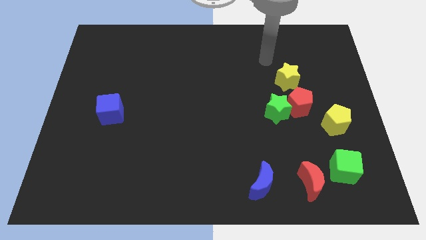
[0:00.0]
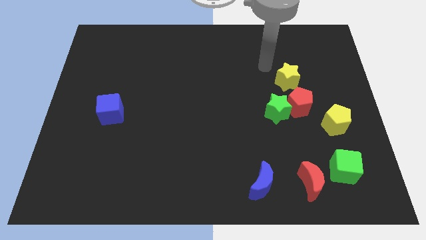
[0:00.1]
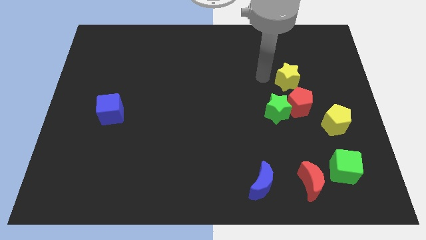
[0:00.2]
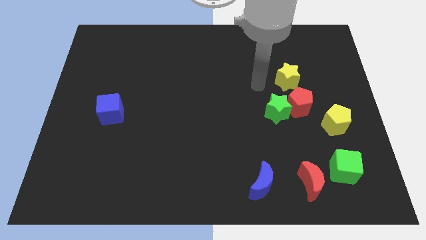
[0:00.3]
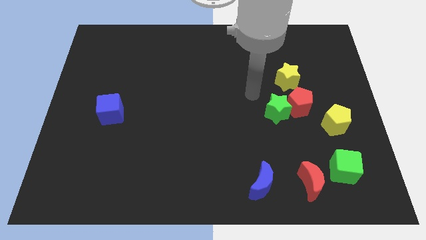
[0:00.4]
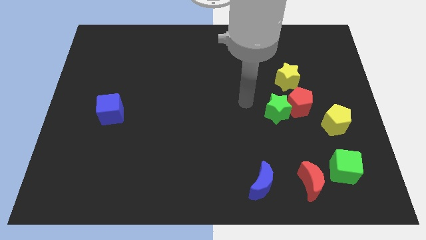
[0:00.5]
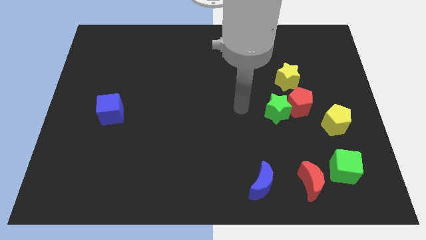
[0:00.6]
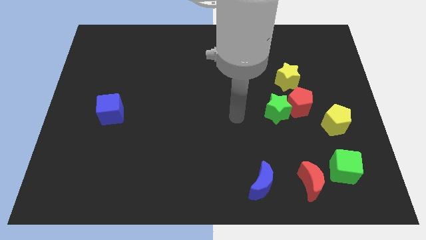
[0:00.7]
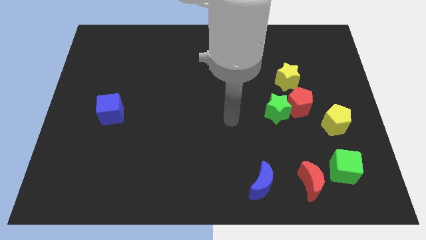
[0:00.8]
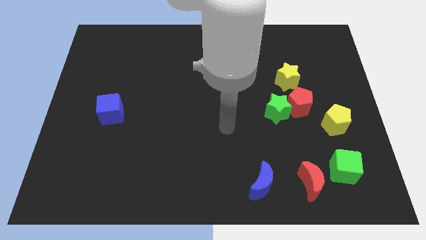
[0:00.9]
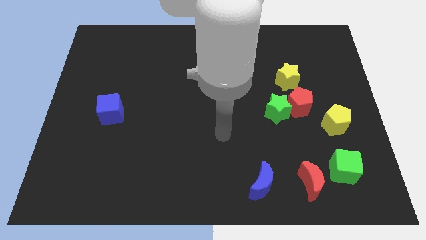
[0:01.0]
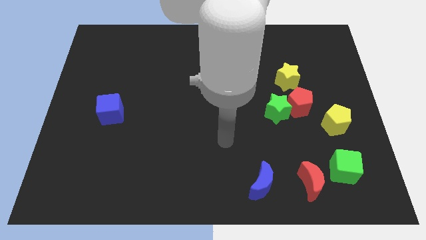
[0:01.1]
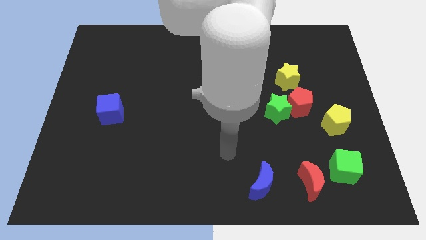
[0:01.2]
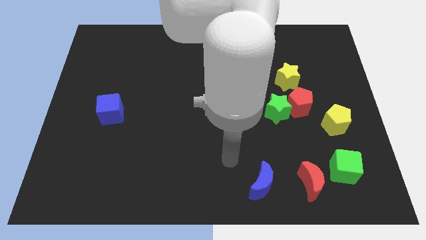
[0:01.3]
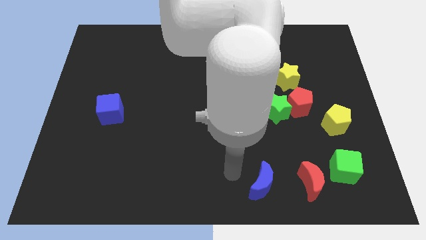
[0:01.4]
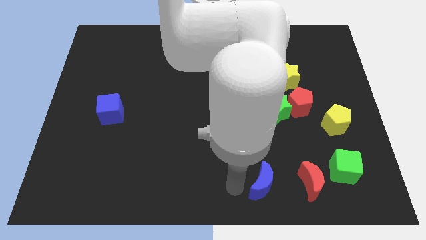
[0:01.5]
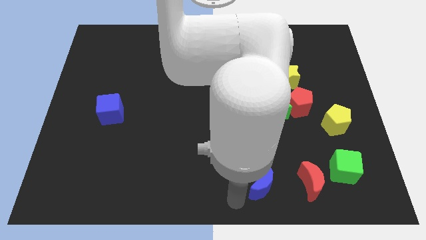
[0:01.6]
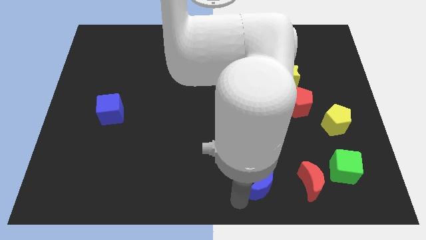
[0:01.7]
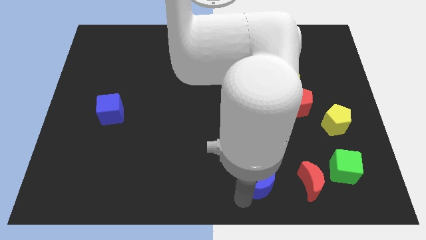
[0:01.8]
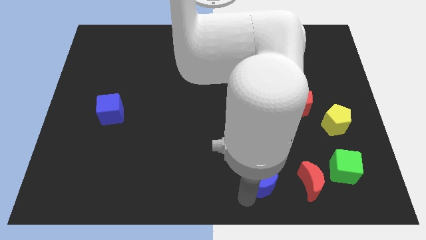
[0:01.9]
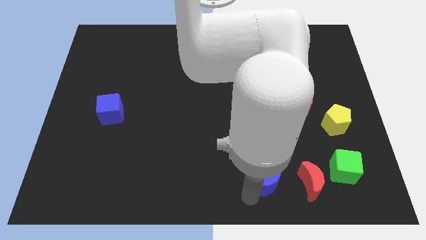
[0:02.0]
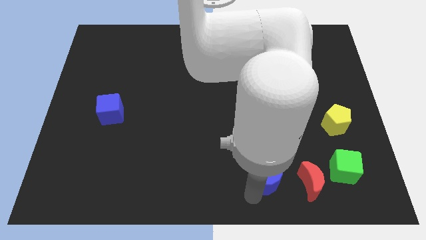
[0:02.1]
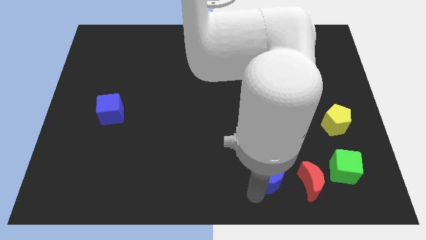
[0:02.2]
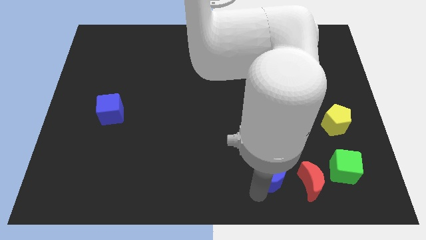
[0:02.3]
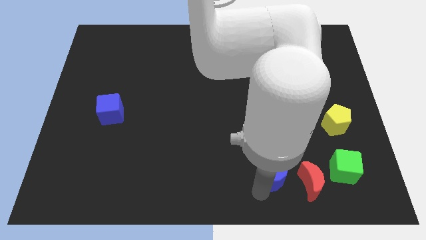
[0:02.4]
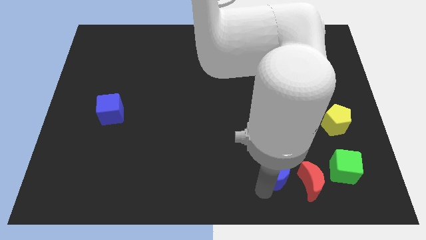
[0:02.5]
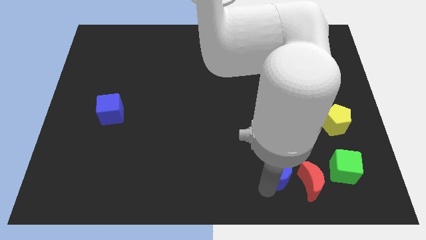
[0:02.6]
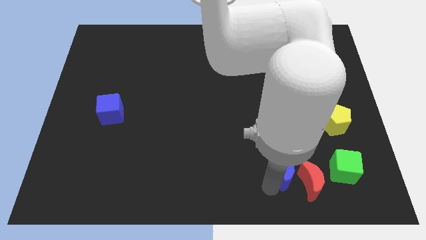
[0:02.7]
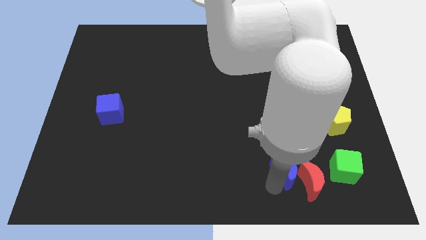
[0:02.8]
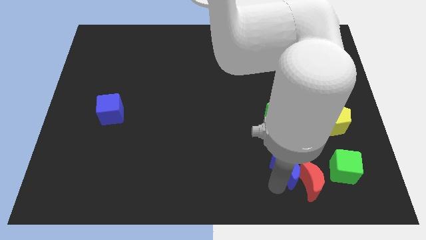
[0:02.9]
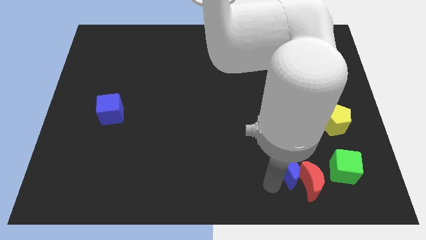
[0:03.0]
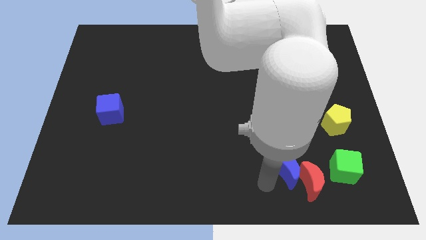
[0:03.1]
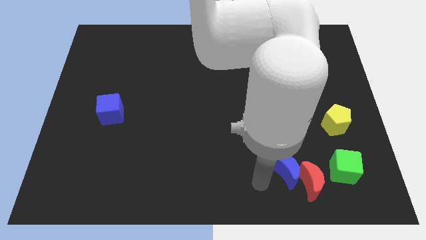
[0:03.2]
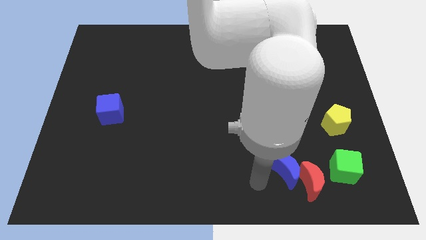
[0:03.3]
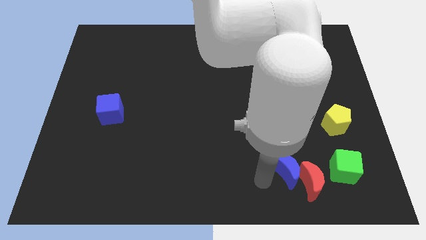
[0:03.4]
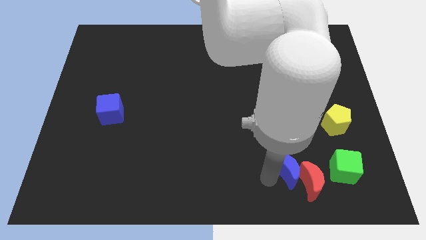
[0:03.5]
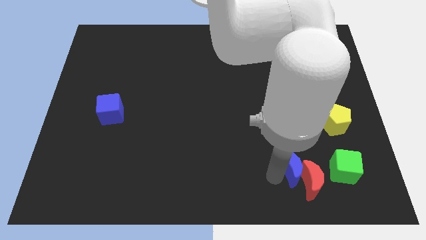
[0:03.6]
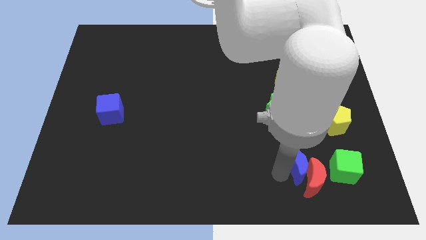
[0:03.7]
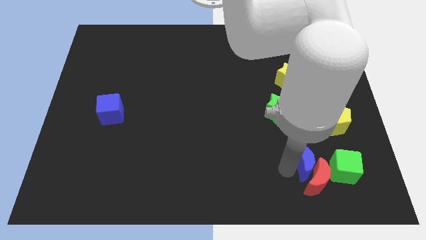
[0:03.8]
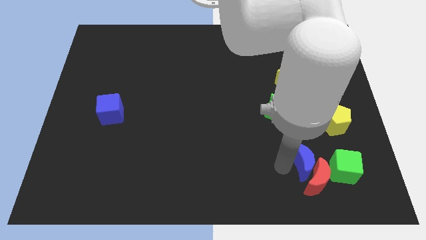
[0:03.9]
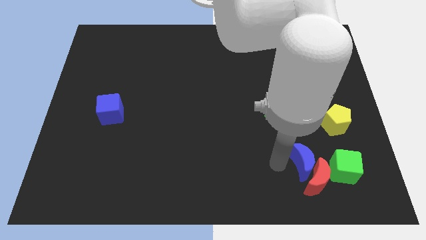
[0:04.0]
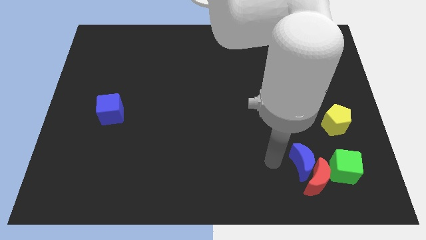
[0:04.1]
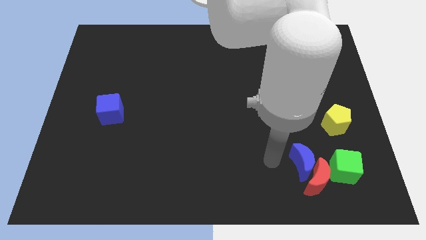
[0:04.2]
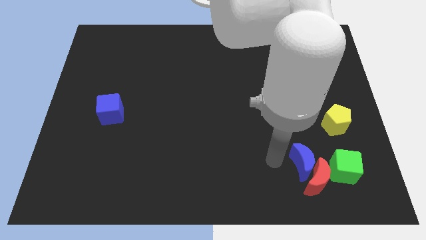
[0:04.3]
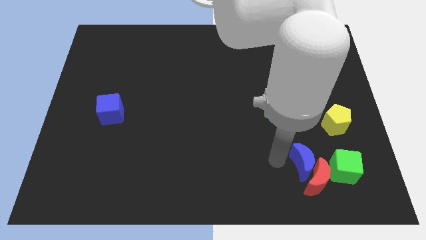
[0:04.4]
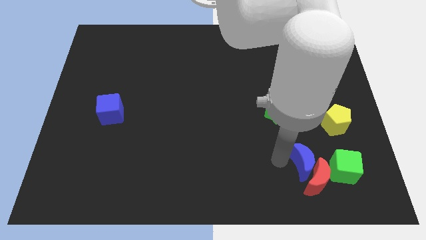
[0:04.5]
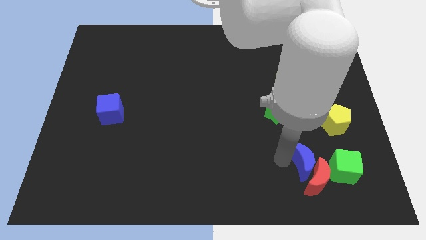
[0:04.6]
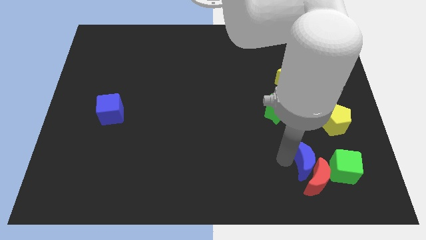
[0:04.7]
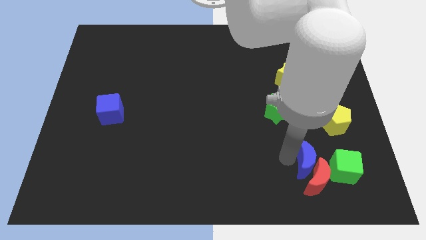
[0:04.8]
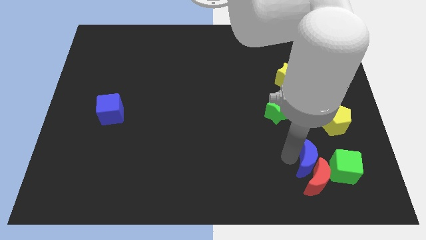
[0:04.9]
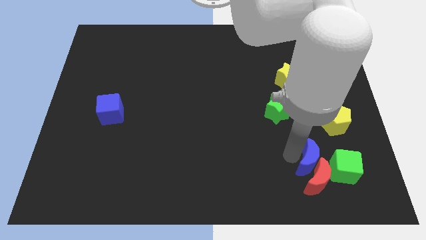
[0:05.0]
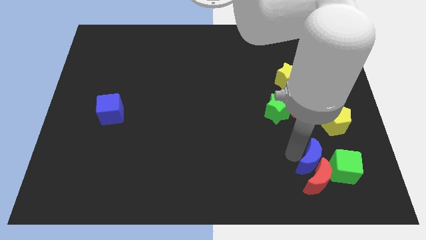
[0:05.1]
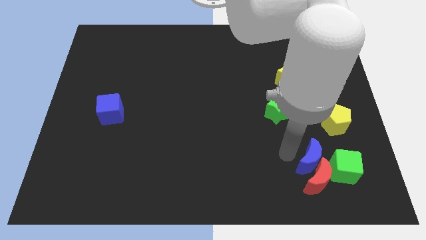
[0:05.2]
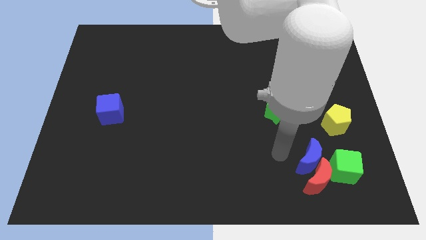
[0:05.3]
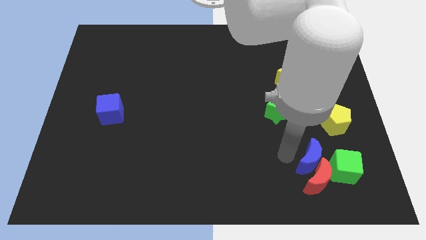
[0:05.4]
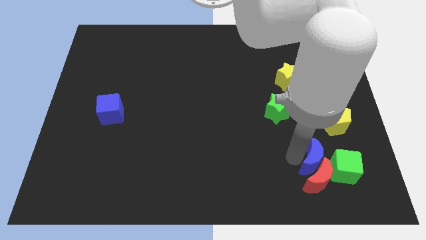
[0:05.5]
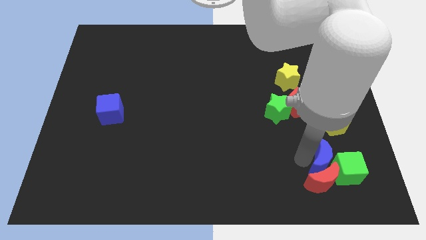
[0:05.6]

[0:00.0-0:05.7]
slide the blue moon close to the green cube

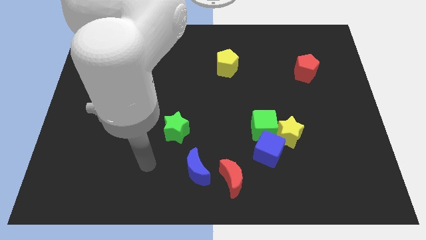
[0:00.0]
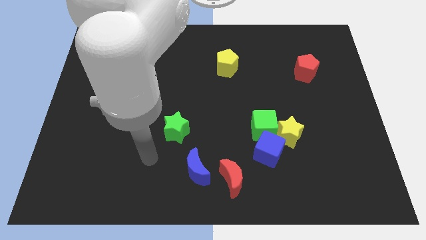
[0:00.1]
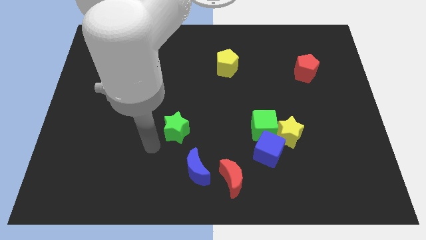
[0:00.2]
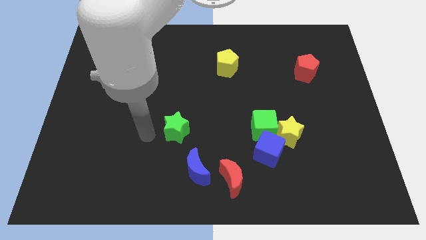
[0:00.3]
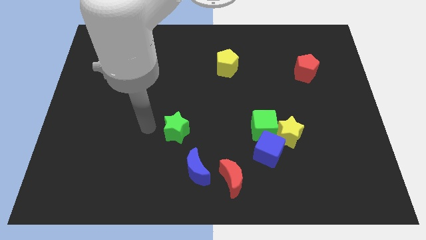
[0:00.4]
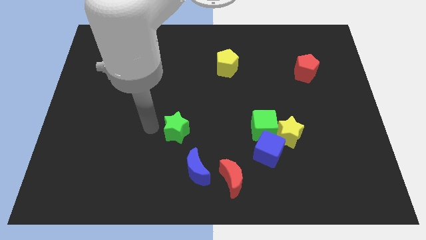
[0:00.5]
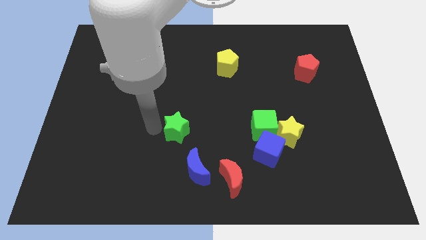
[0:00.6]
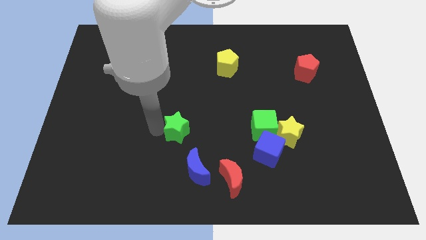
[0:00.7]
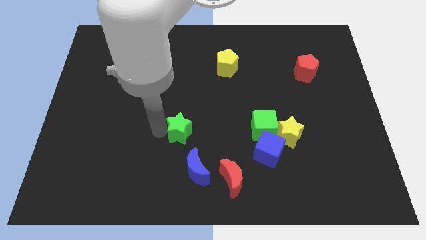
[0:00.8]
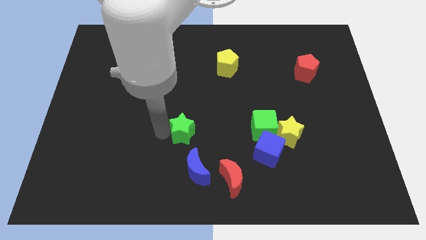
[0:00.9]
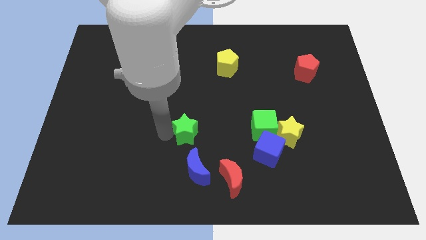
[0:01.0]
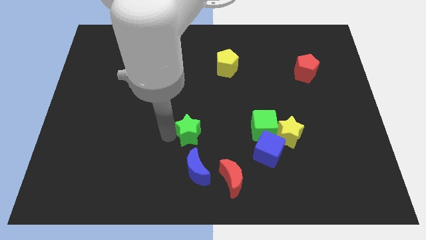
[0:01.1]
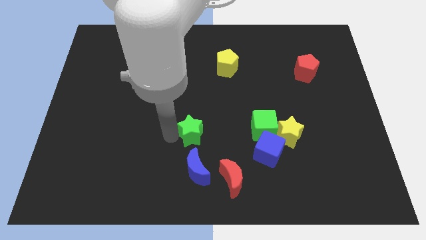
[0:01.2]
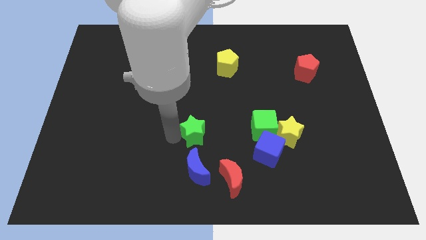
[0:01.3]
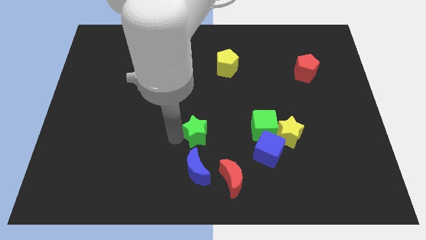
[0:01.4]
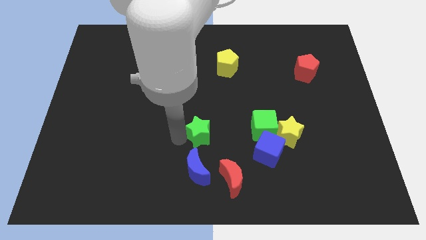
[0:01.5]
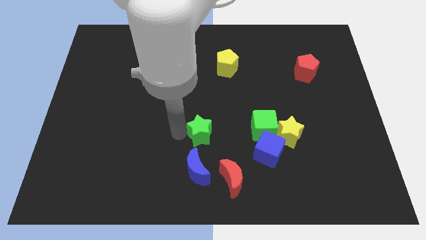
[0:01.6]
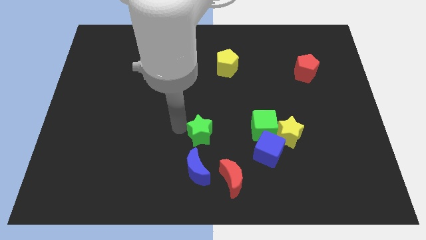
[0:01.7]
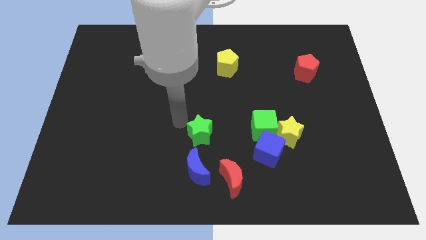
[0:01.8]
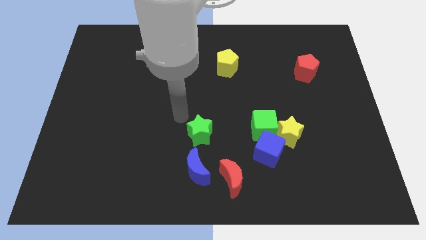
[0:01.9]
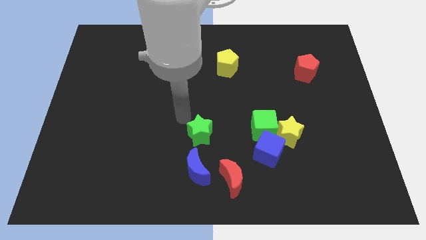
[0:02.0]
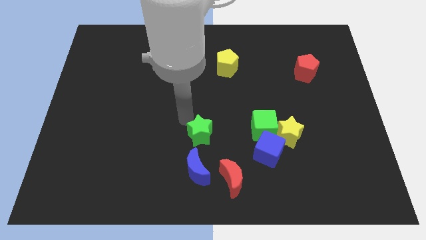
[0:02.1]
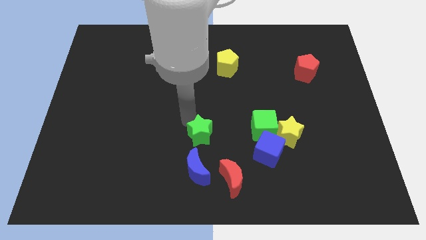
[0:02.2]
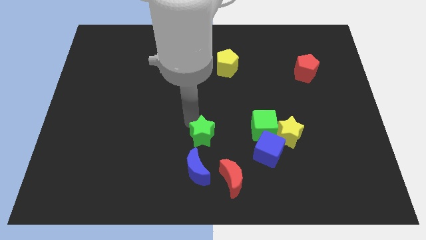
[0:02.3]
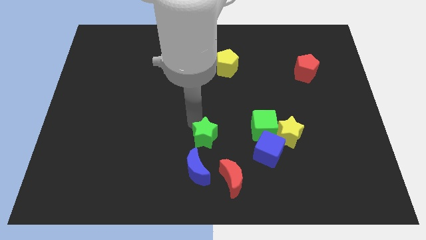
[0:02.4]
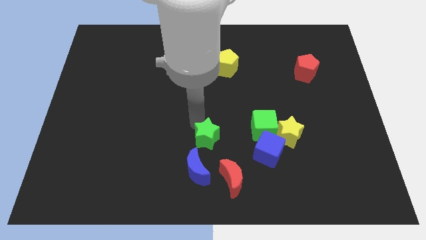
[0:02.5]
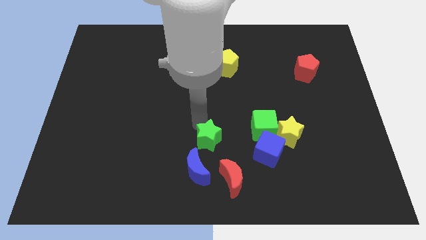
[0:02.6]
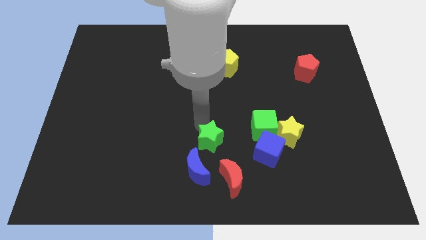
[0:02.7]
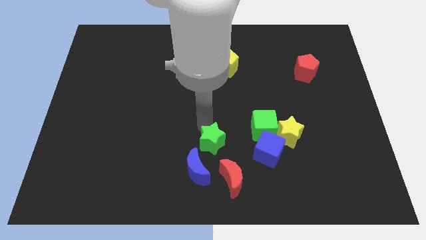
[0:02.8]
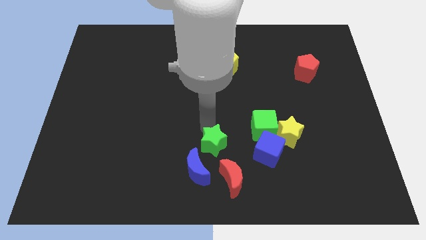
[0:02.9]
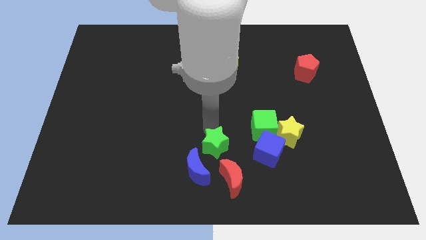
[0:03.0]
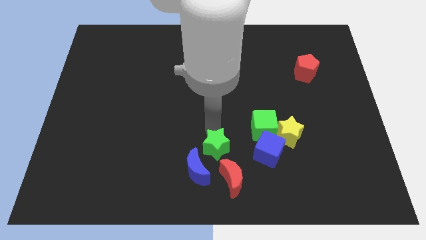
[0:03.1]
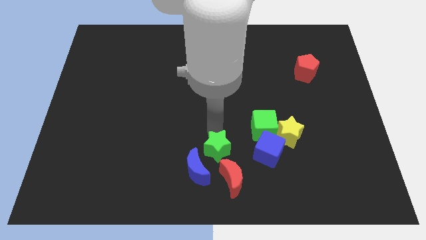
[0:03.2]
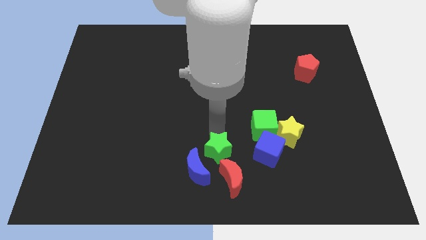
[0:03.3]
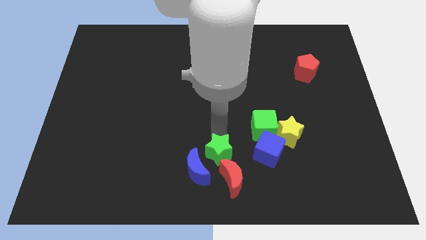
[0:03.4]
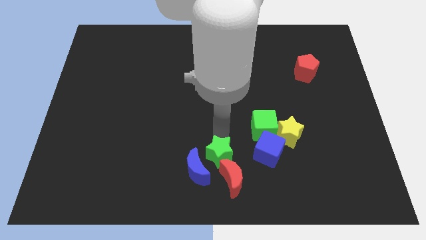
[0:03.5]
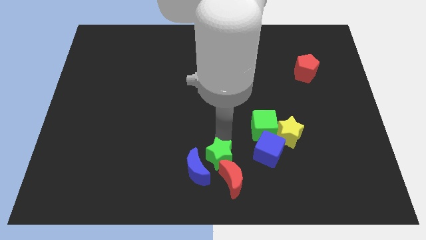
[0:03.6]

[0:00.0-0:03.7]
put the green star close to the red moon
